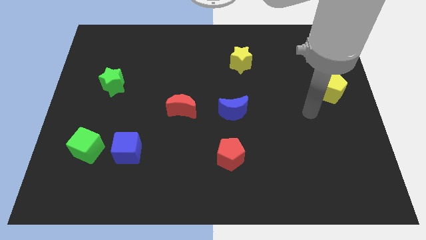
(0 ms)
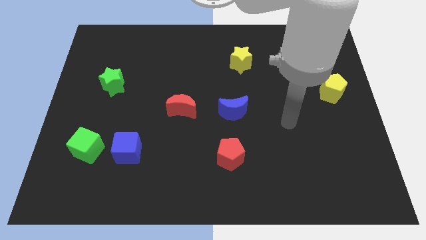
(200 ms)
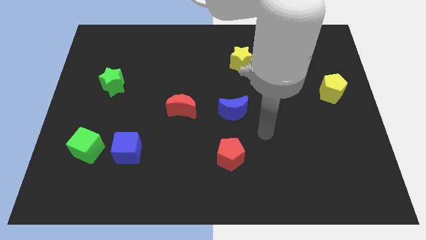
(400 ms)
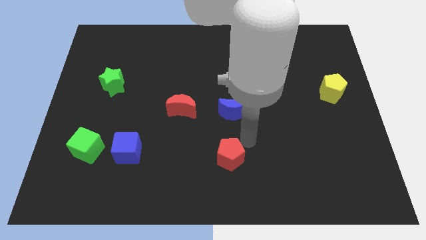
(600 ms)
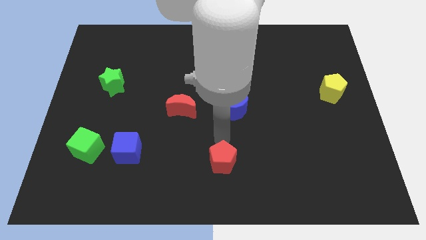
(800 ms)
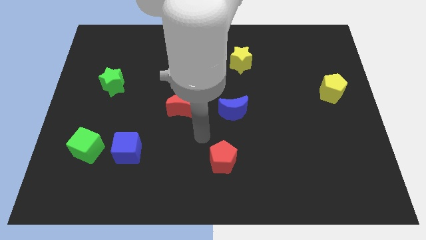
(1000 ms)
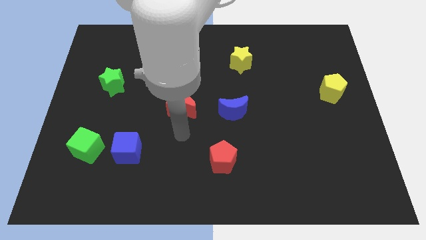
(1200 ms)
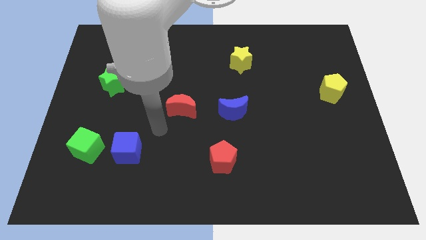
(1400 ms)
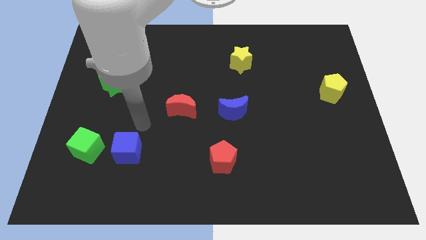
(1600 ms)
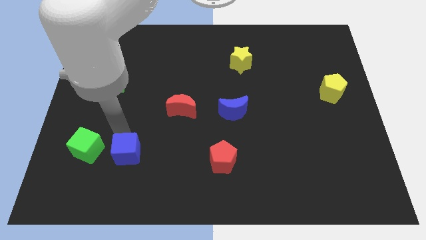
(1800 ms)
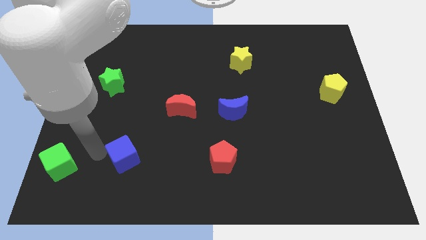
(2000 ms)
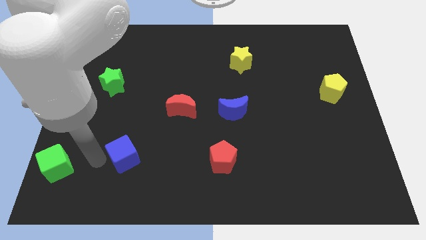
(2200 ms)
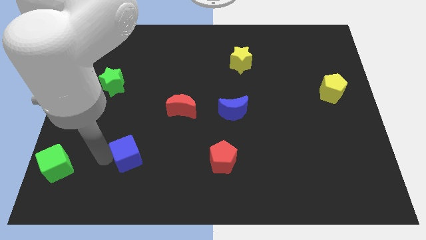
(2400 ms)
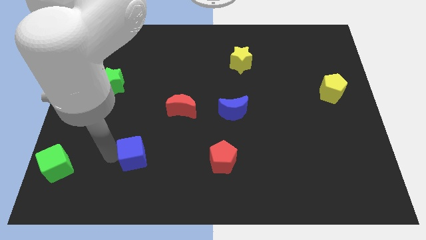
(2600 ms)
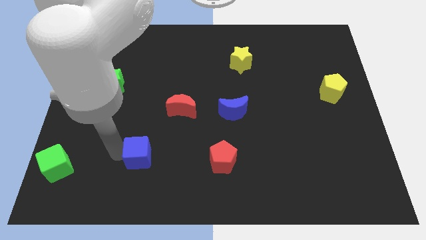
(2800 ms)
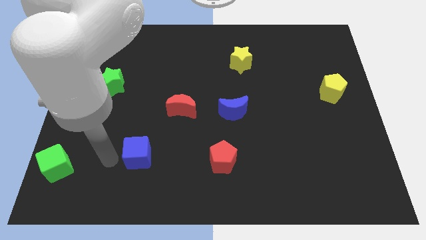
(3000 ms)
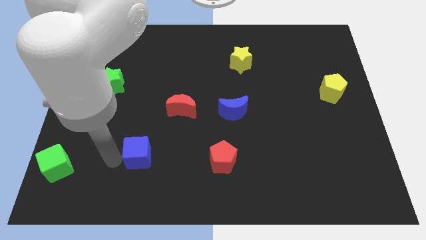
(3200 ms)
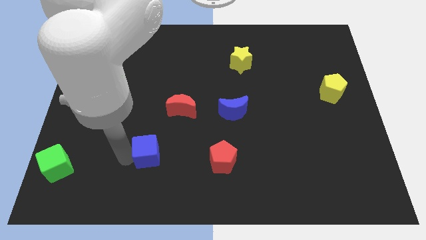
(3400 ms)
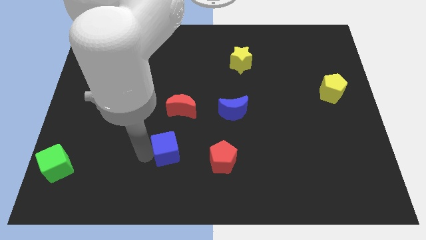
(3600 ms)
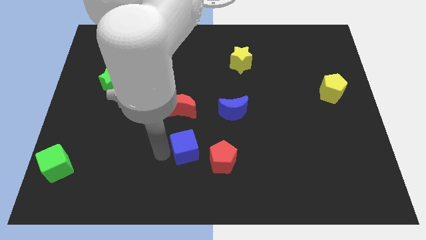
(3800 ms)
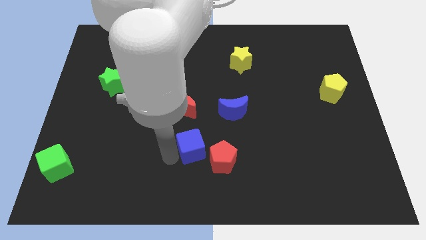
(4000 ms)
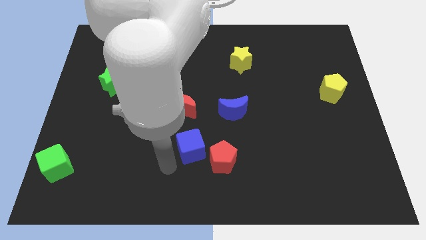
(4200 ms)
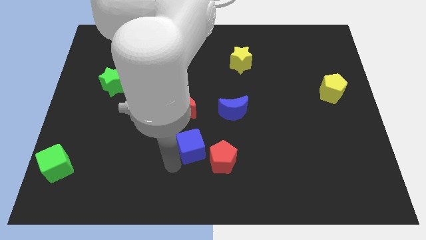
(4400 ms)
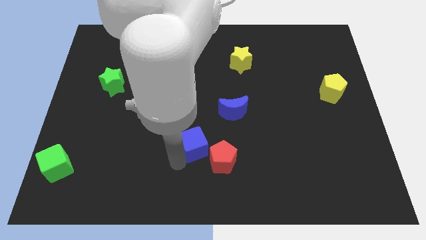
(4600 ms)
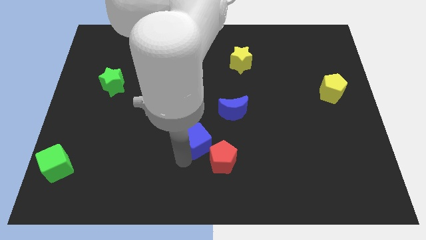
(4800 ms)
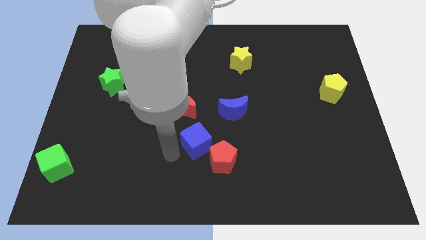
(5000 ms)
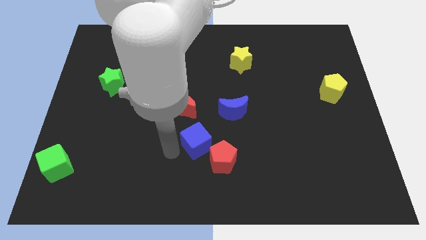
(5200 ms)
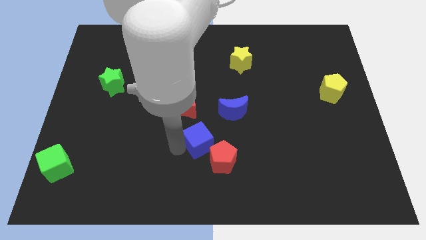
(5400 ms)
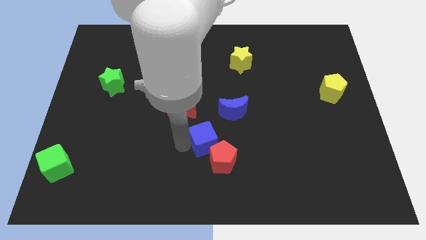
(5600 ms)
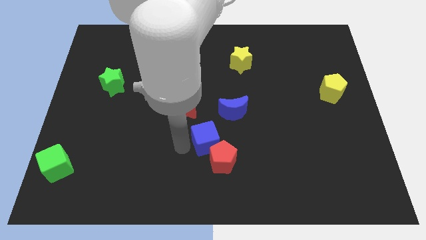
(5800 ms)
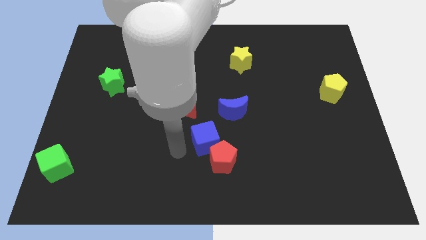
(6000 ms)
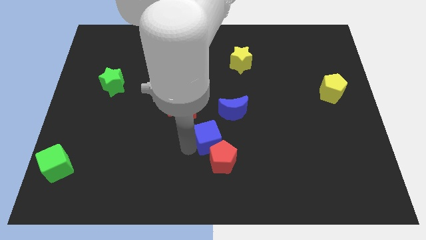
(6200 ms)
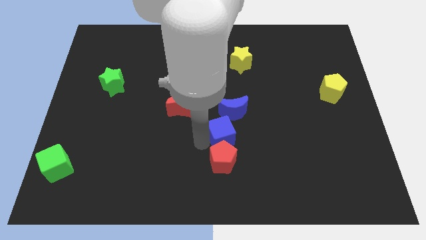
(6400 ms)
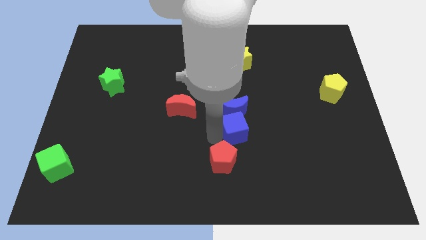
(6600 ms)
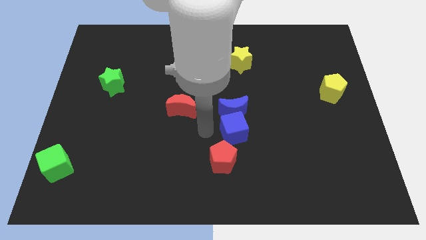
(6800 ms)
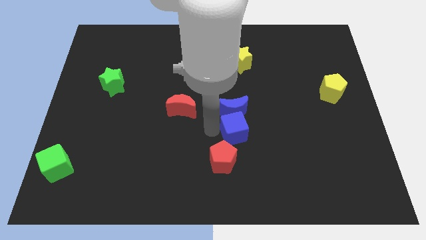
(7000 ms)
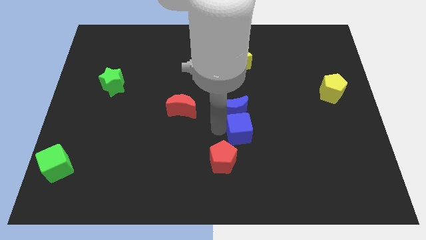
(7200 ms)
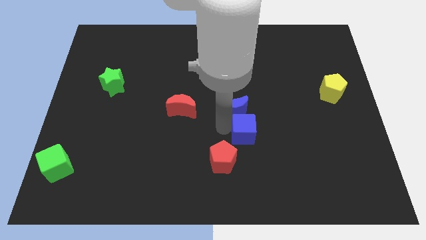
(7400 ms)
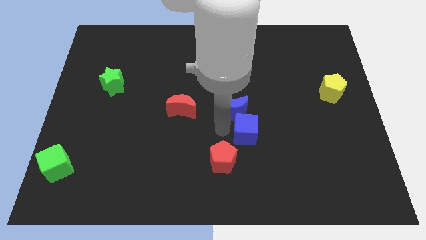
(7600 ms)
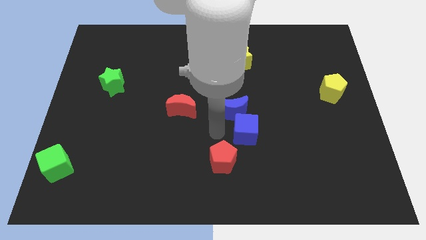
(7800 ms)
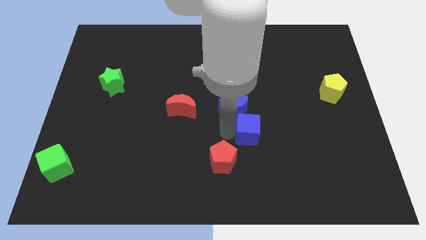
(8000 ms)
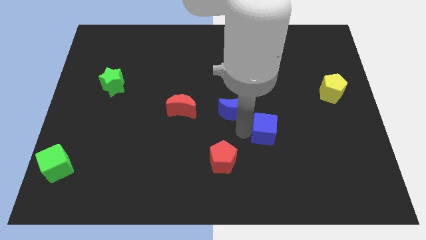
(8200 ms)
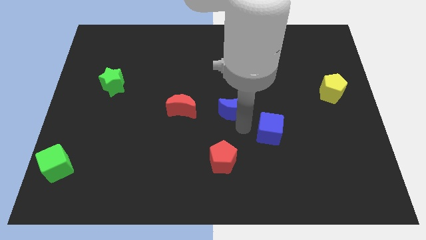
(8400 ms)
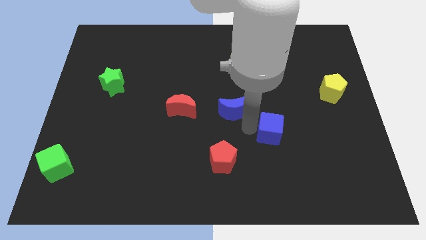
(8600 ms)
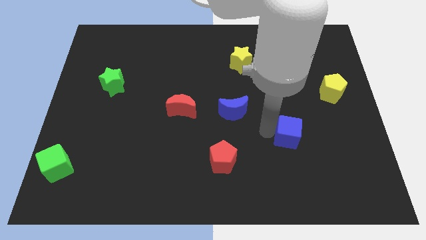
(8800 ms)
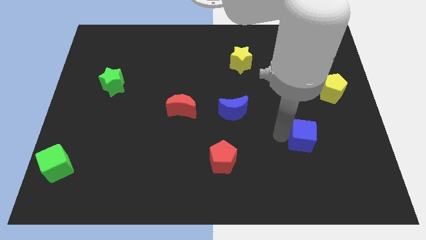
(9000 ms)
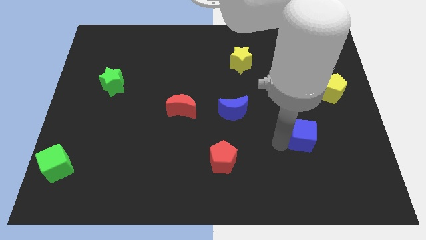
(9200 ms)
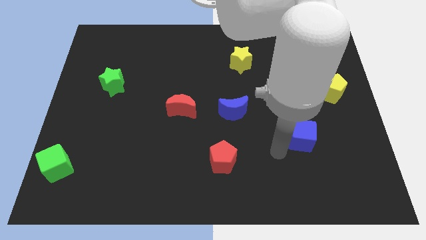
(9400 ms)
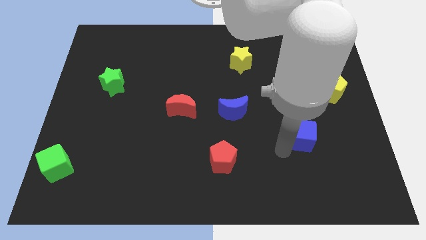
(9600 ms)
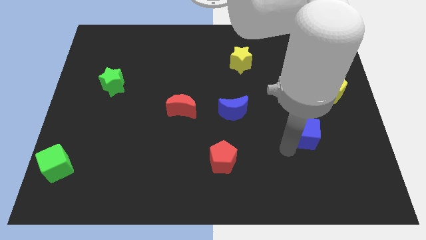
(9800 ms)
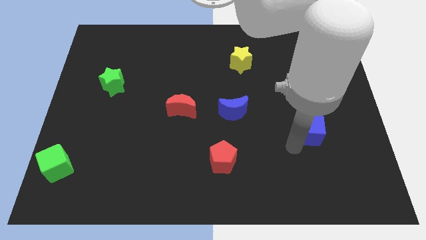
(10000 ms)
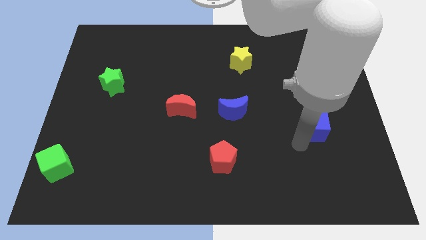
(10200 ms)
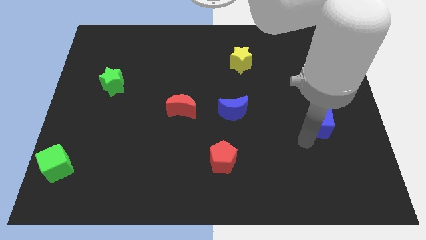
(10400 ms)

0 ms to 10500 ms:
slide the blue cube to the bottom side of the yellow pentagon

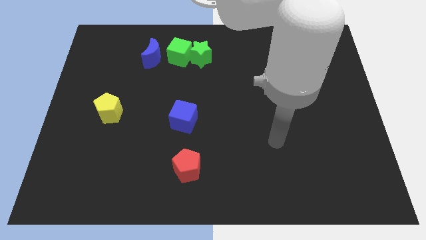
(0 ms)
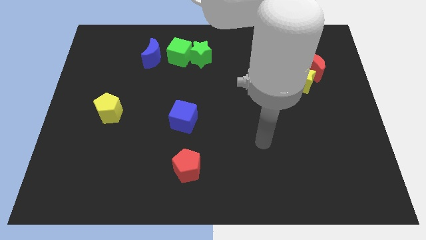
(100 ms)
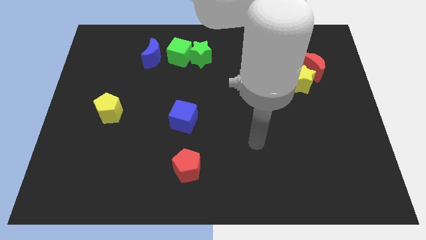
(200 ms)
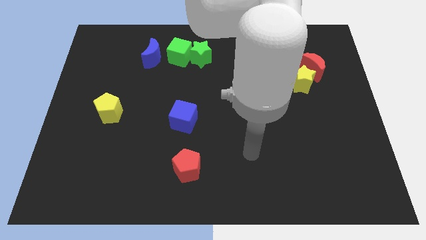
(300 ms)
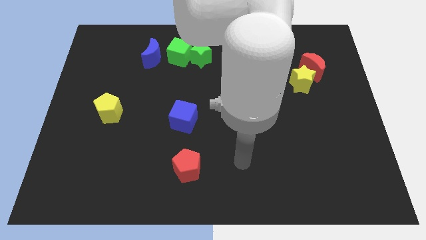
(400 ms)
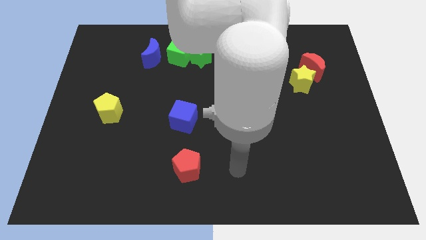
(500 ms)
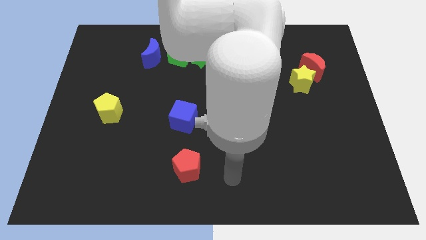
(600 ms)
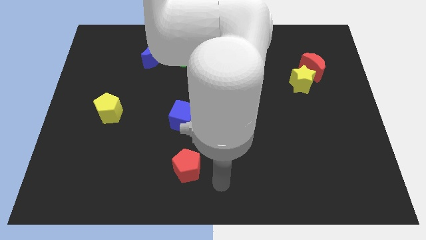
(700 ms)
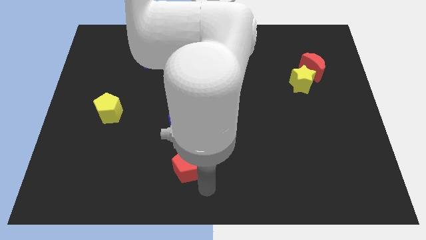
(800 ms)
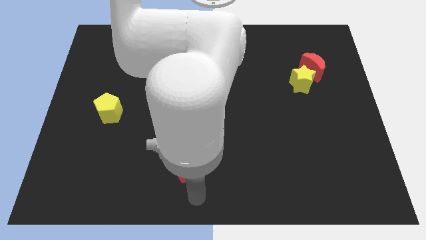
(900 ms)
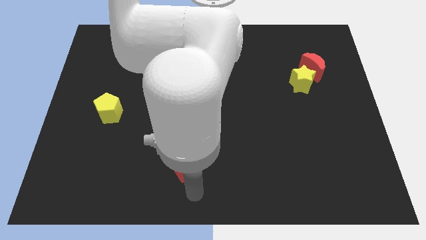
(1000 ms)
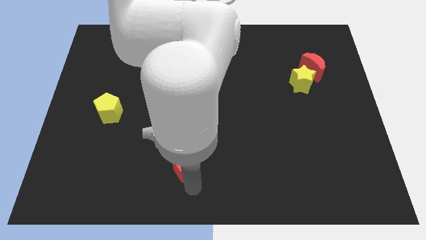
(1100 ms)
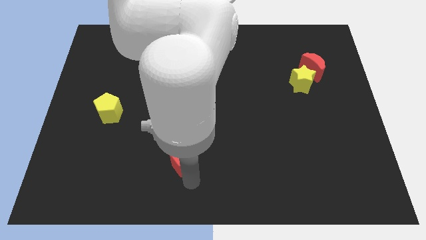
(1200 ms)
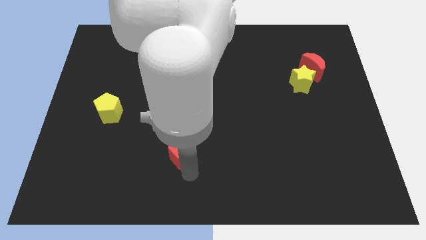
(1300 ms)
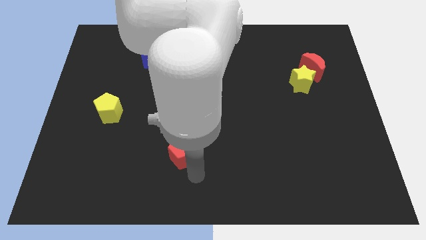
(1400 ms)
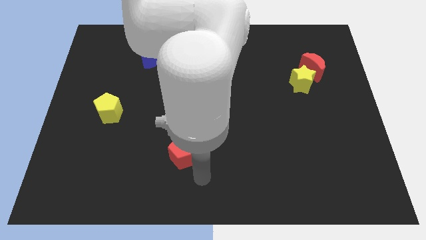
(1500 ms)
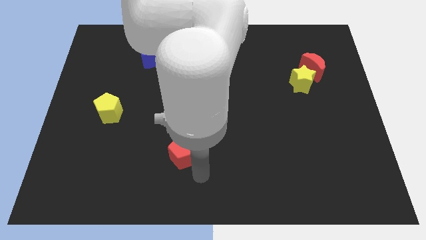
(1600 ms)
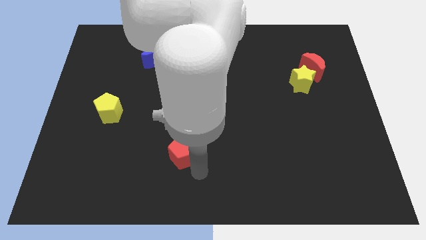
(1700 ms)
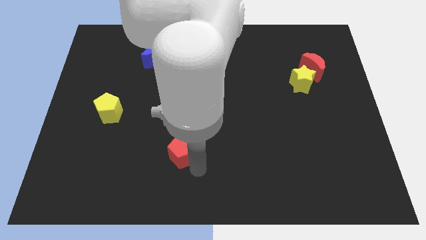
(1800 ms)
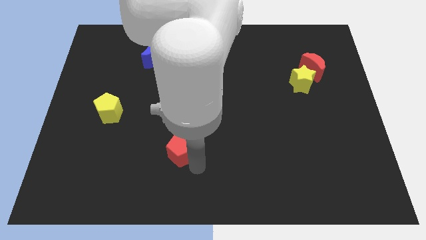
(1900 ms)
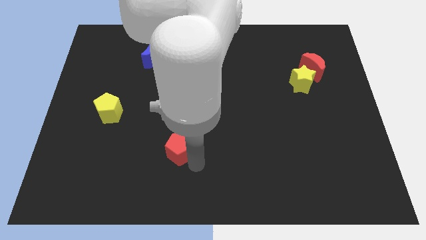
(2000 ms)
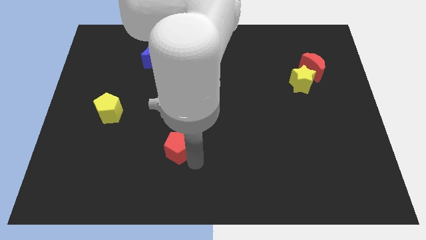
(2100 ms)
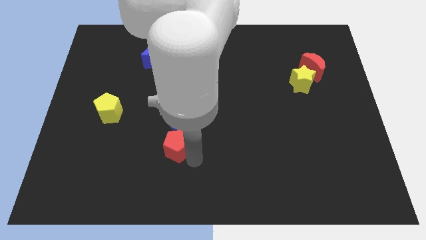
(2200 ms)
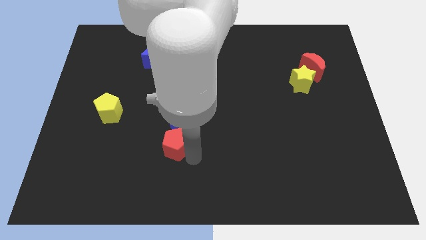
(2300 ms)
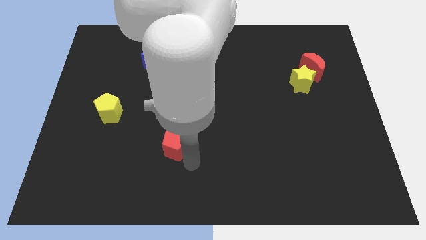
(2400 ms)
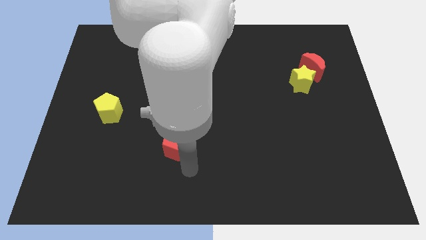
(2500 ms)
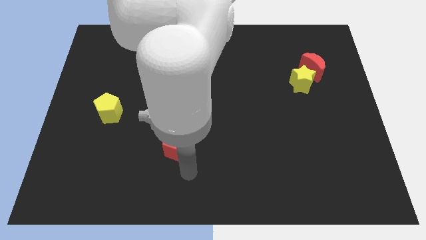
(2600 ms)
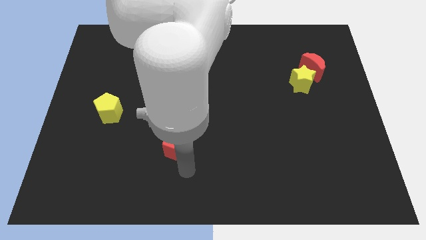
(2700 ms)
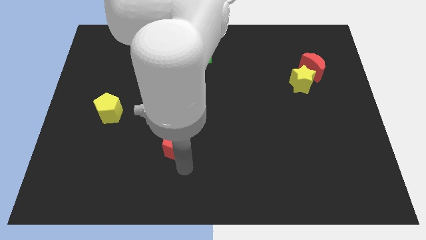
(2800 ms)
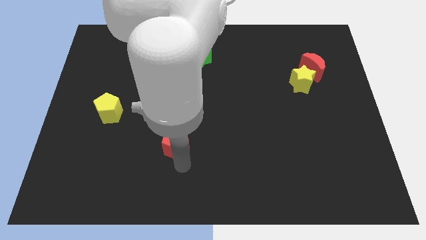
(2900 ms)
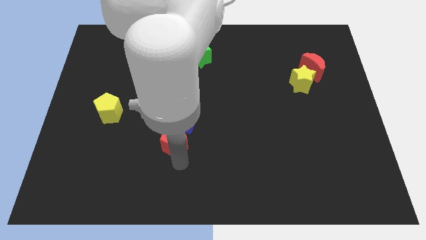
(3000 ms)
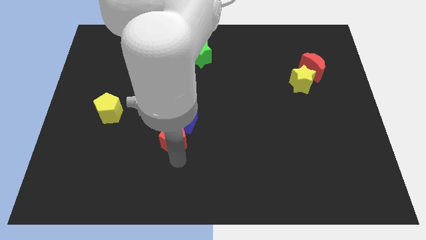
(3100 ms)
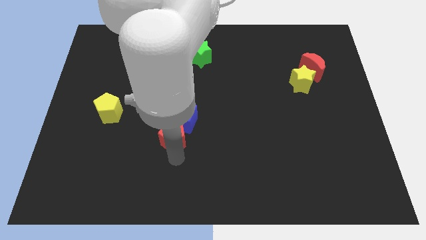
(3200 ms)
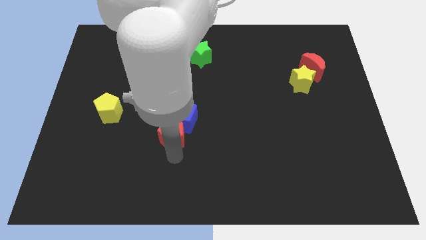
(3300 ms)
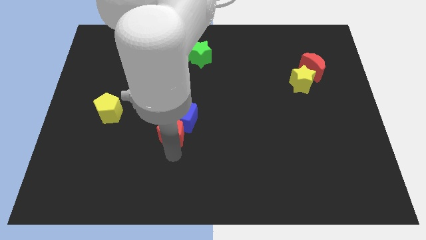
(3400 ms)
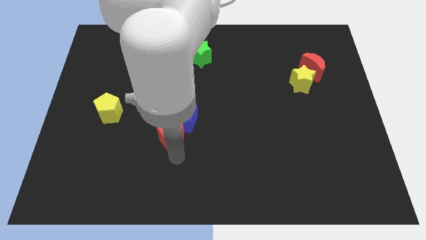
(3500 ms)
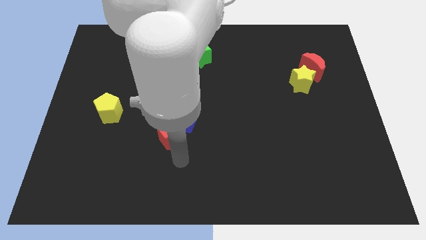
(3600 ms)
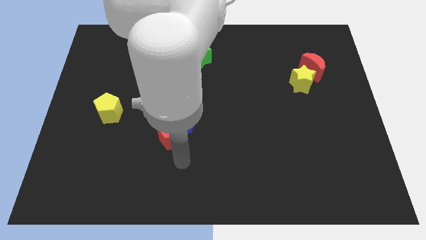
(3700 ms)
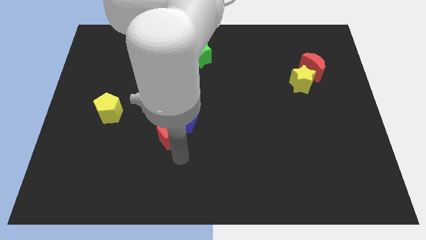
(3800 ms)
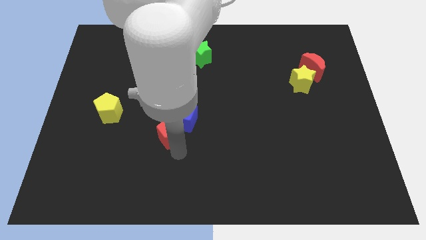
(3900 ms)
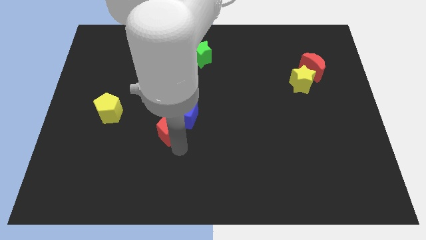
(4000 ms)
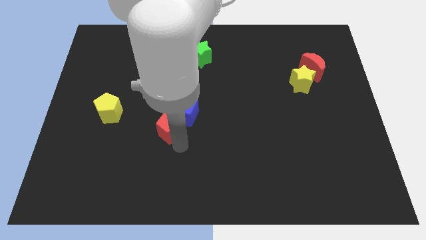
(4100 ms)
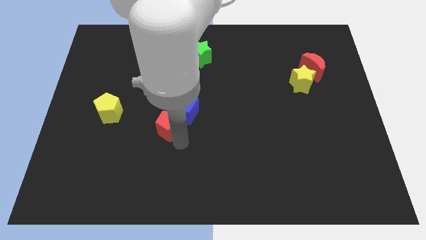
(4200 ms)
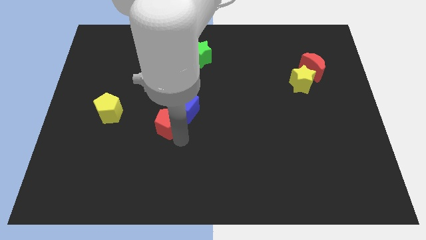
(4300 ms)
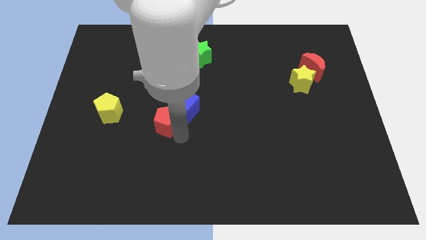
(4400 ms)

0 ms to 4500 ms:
push the red pentagon right of the yellow pentagon
